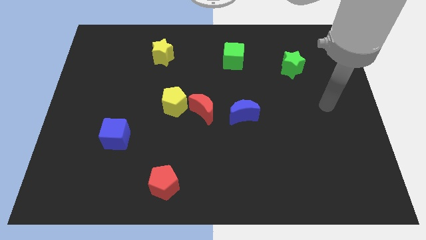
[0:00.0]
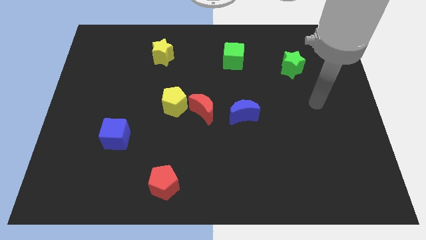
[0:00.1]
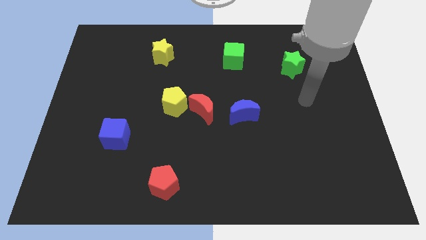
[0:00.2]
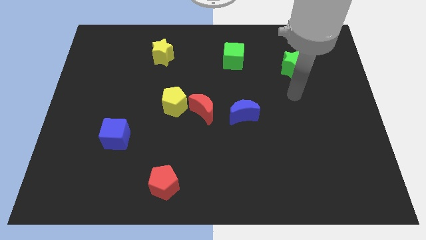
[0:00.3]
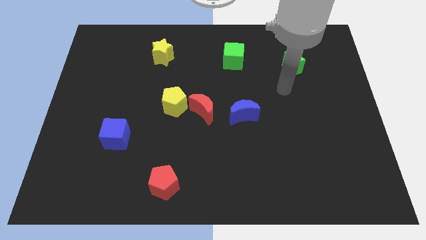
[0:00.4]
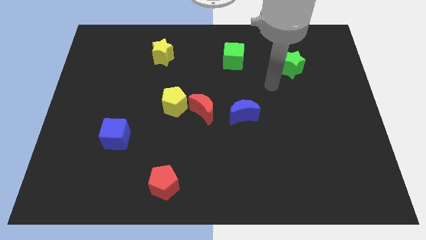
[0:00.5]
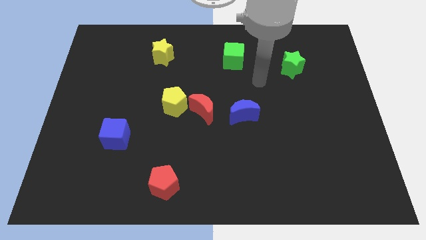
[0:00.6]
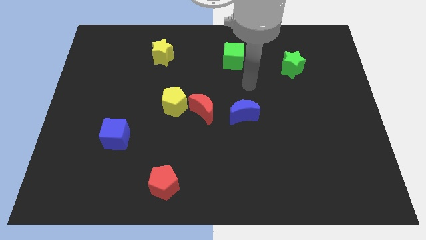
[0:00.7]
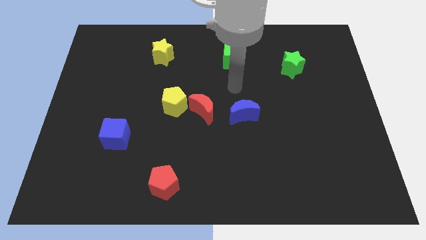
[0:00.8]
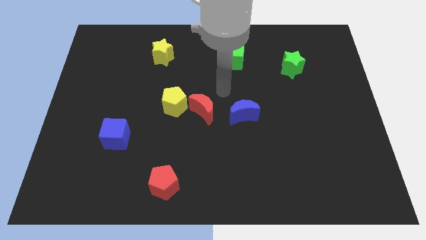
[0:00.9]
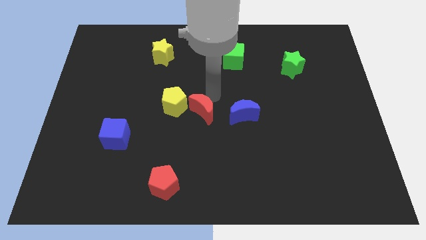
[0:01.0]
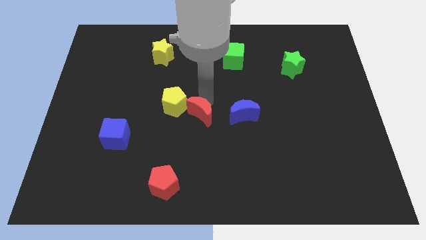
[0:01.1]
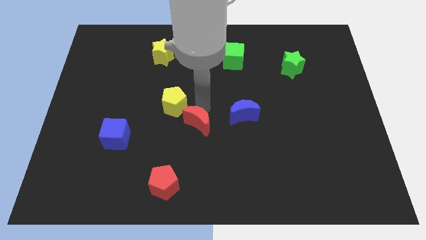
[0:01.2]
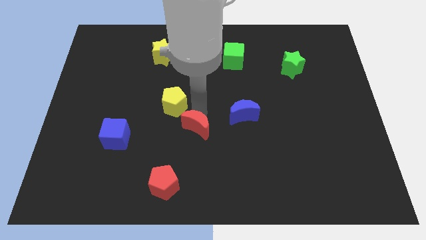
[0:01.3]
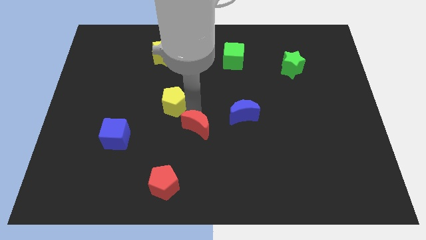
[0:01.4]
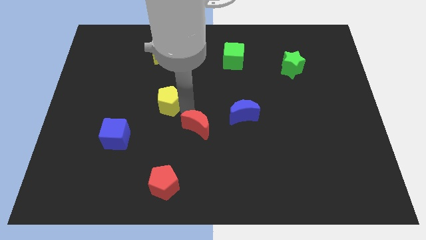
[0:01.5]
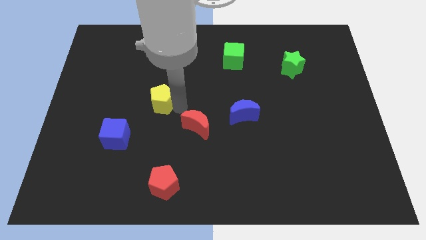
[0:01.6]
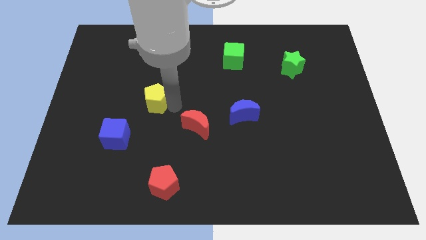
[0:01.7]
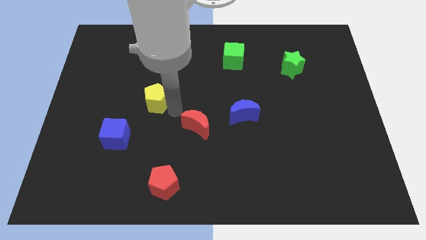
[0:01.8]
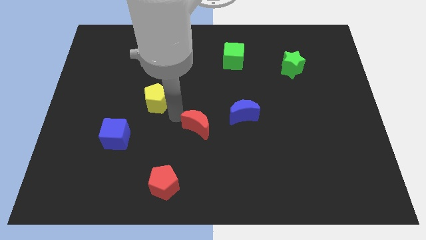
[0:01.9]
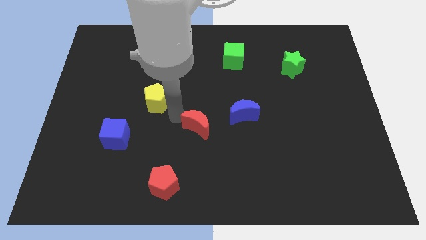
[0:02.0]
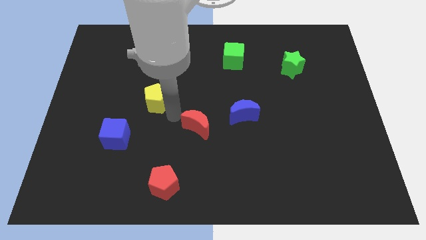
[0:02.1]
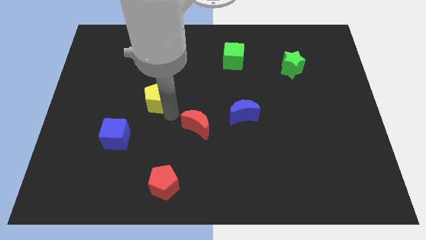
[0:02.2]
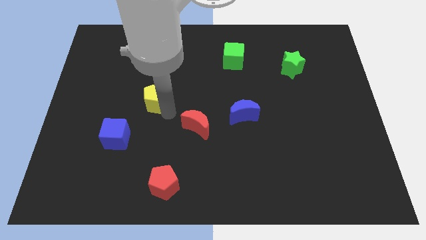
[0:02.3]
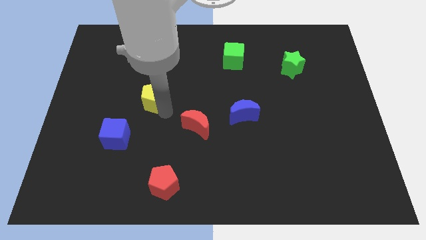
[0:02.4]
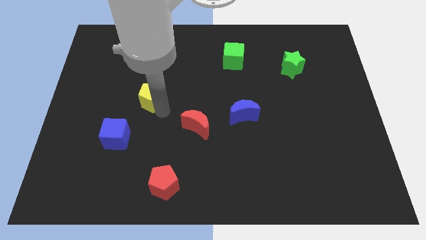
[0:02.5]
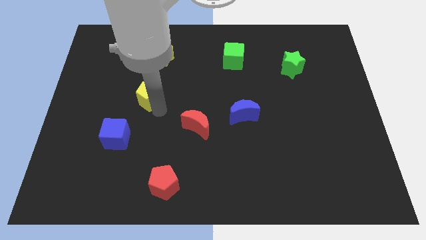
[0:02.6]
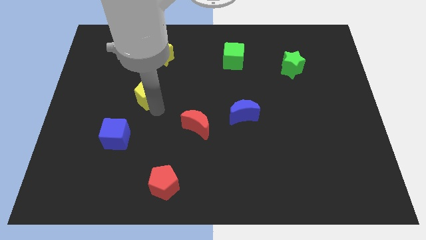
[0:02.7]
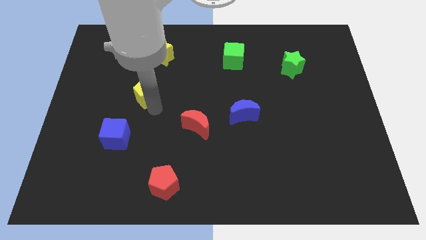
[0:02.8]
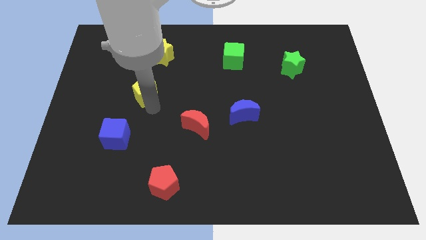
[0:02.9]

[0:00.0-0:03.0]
push the yellow pentagon a little bit up and to the left

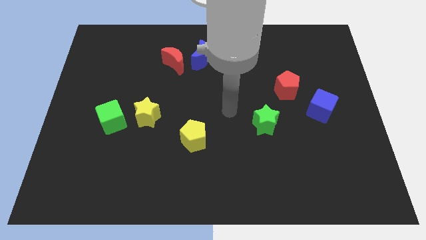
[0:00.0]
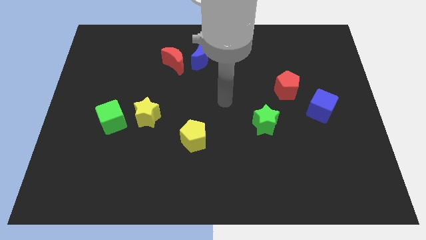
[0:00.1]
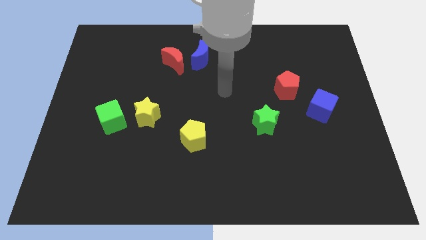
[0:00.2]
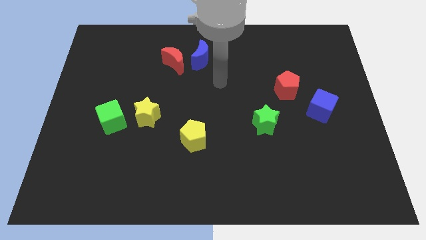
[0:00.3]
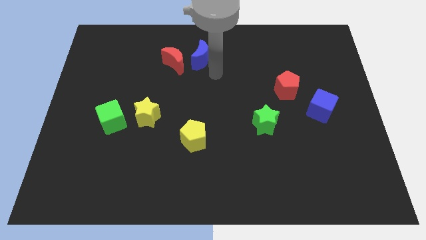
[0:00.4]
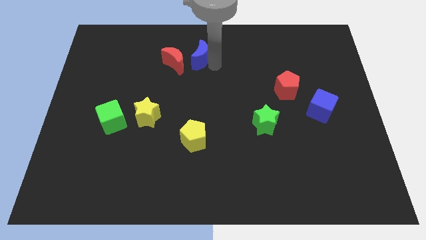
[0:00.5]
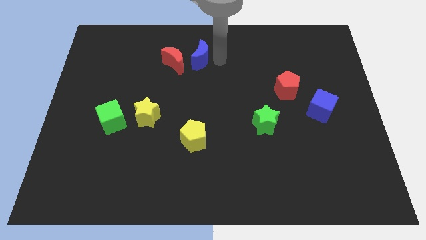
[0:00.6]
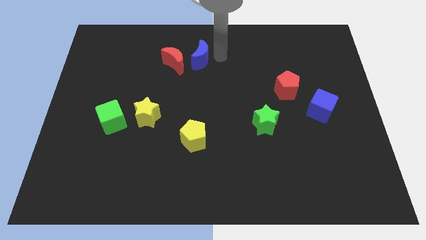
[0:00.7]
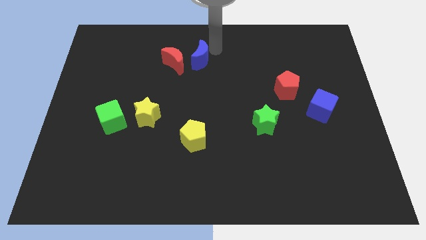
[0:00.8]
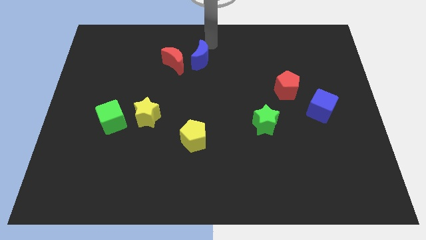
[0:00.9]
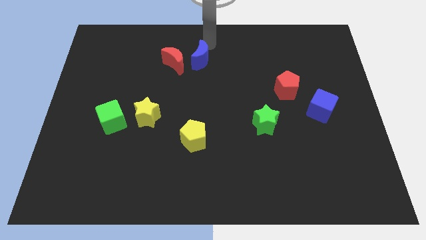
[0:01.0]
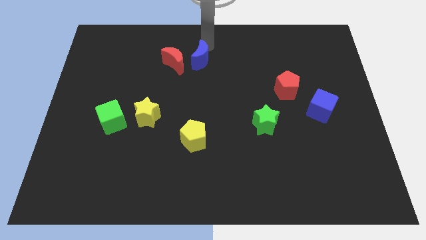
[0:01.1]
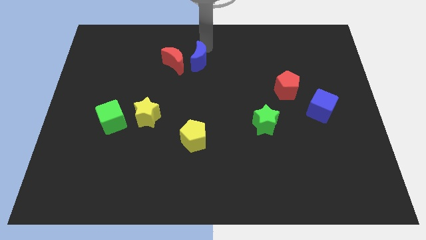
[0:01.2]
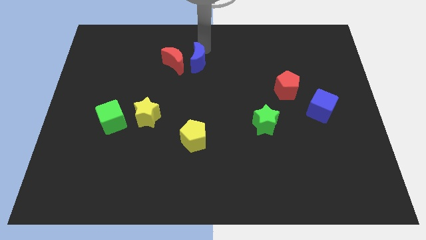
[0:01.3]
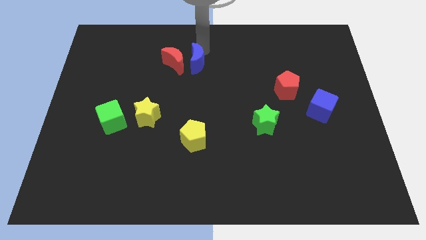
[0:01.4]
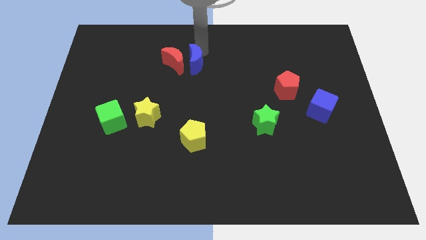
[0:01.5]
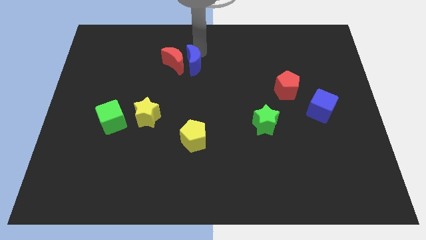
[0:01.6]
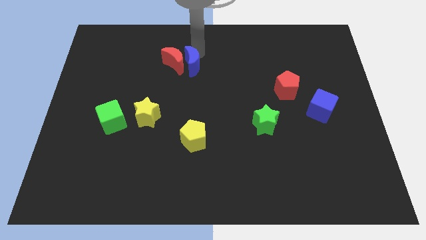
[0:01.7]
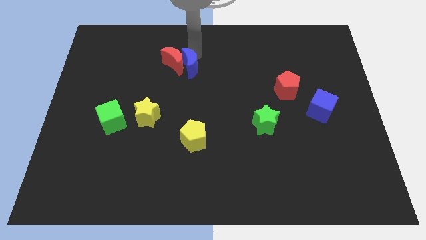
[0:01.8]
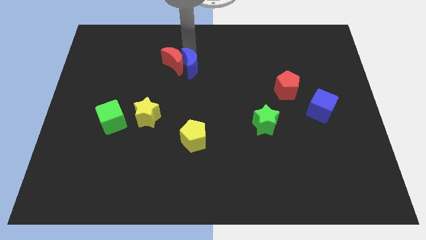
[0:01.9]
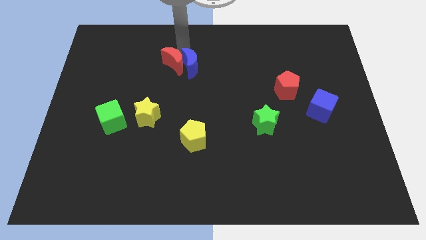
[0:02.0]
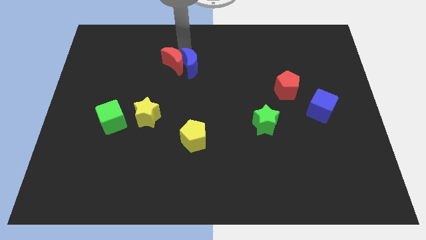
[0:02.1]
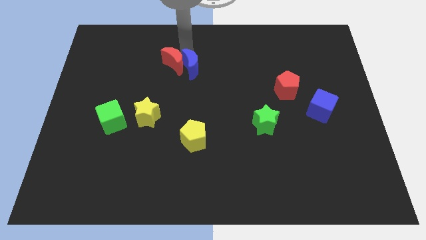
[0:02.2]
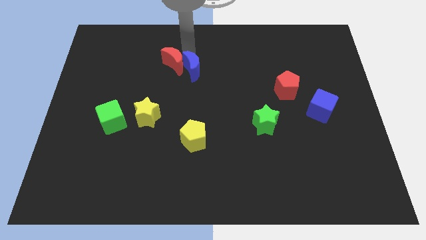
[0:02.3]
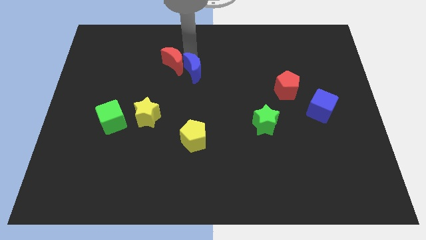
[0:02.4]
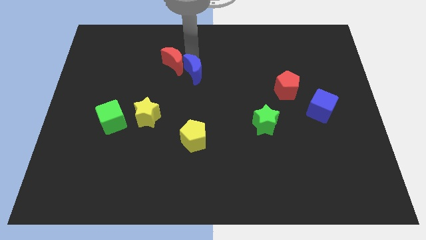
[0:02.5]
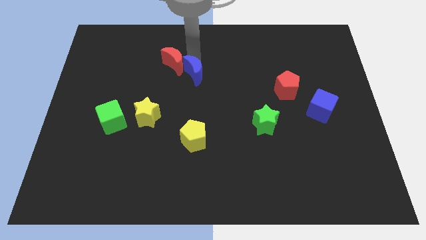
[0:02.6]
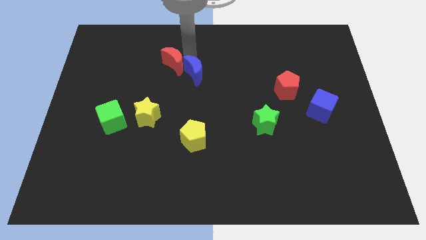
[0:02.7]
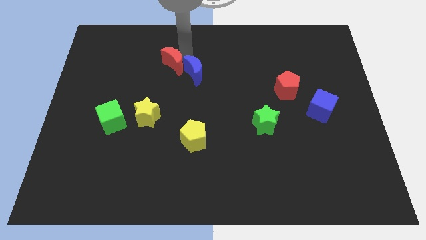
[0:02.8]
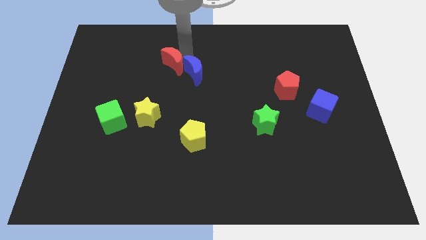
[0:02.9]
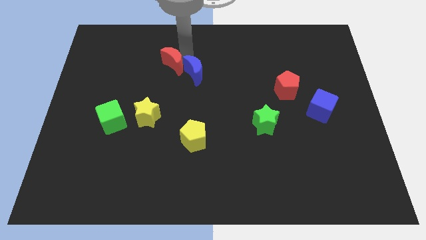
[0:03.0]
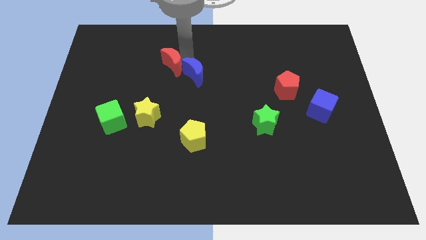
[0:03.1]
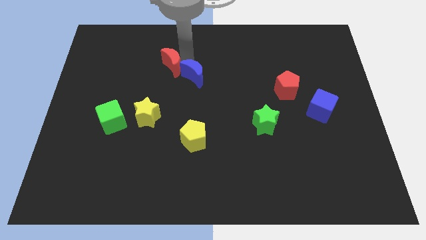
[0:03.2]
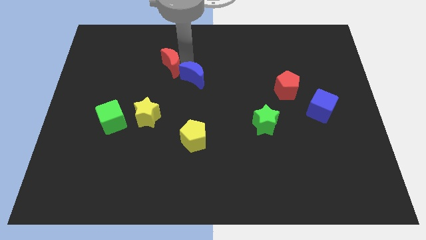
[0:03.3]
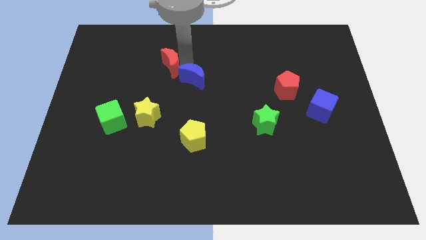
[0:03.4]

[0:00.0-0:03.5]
slide the blue moon a little bit downwards

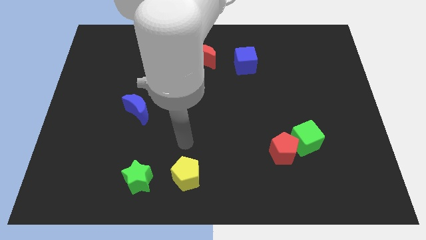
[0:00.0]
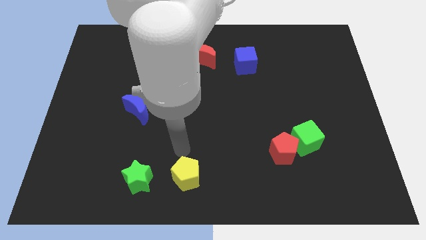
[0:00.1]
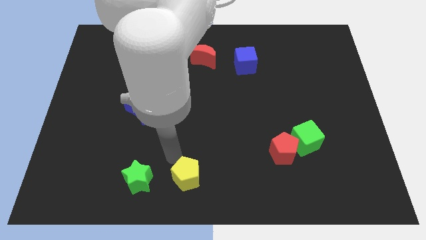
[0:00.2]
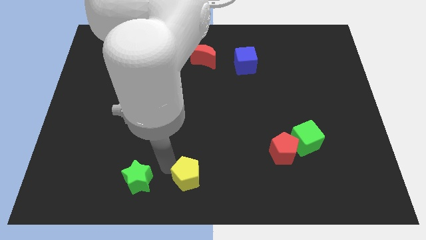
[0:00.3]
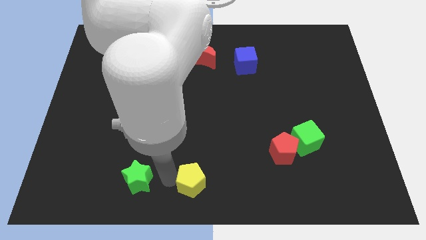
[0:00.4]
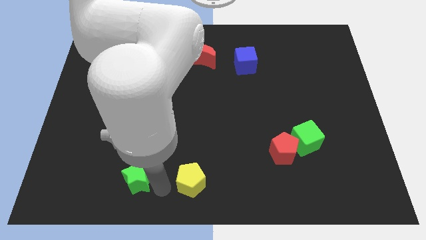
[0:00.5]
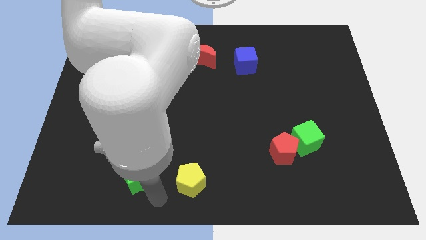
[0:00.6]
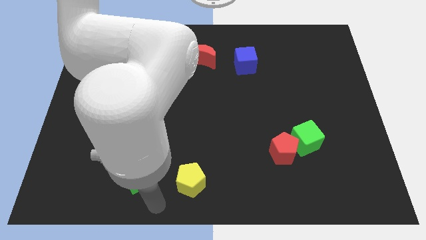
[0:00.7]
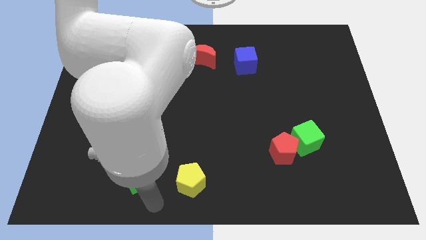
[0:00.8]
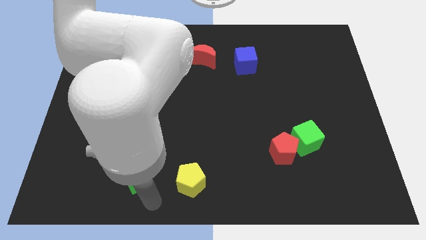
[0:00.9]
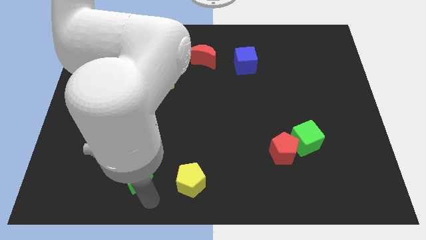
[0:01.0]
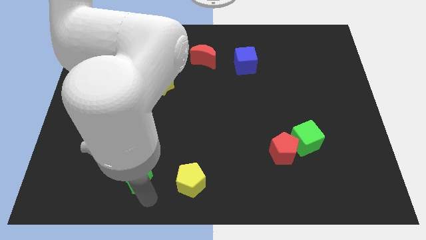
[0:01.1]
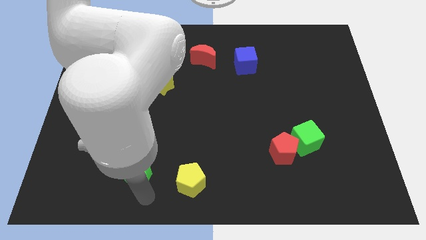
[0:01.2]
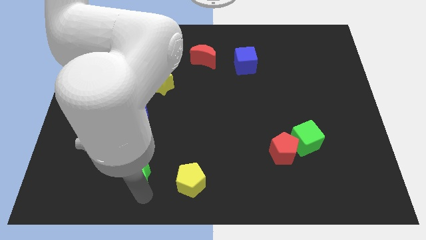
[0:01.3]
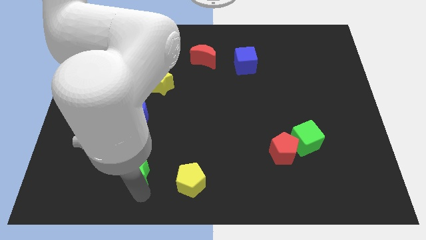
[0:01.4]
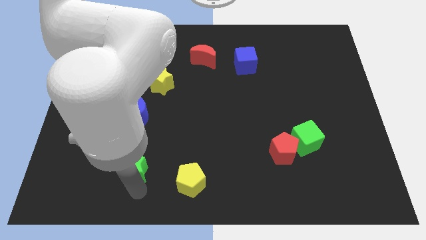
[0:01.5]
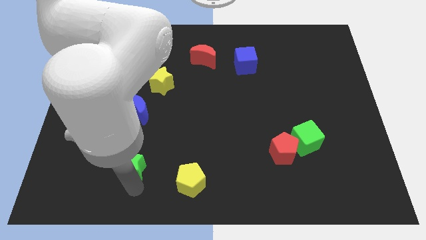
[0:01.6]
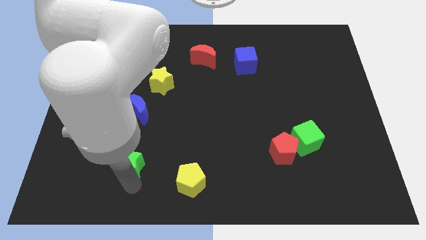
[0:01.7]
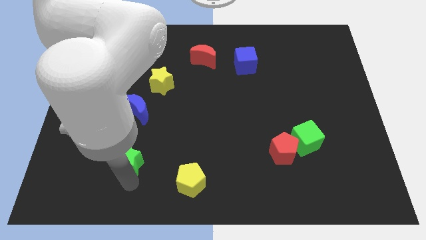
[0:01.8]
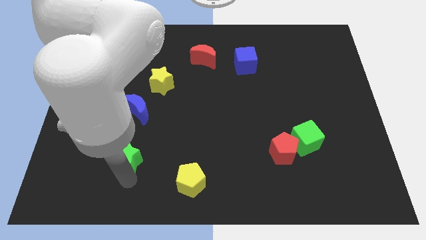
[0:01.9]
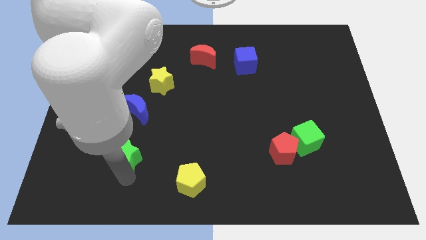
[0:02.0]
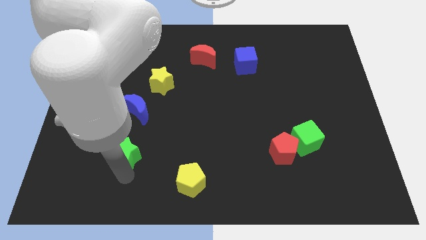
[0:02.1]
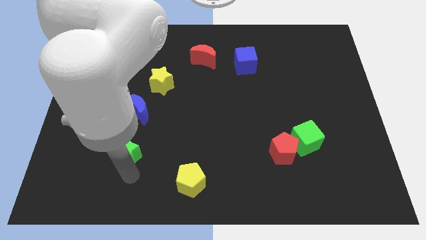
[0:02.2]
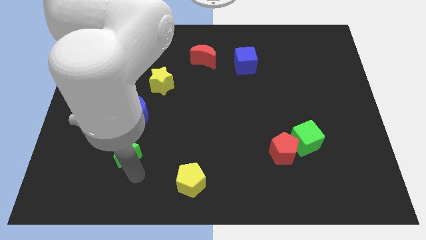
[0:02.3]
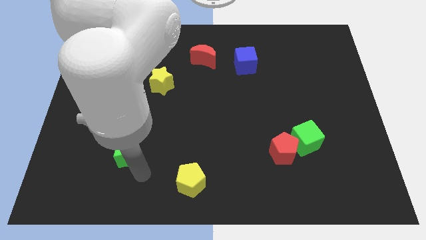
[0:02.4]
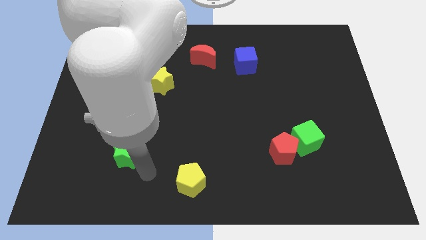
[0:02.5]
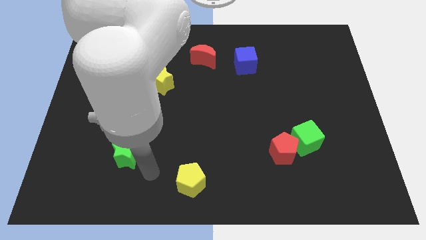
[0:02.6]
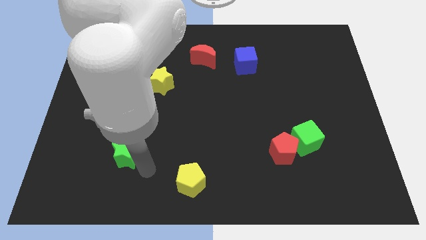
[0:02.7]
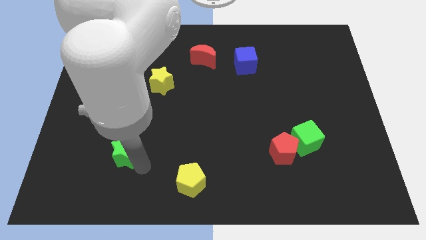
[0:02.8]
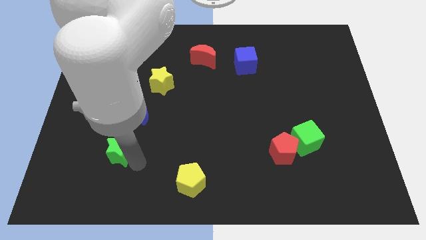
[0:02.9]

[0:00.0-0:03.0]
slightly move the green star diagonally upwards and to the left
